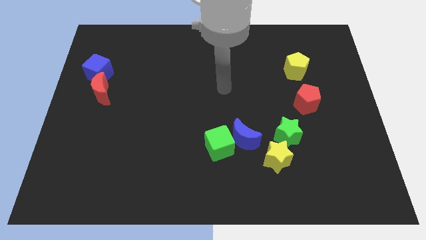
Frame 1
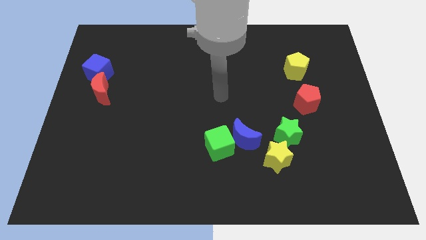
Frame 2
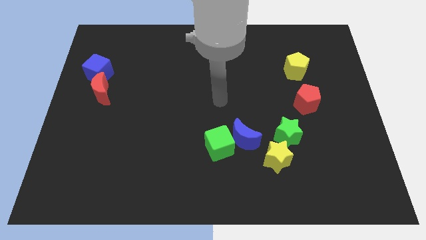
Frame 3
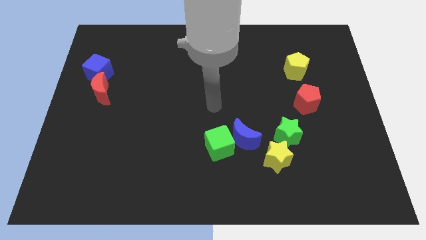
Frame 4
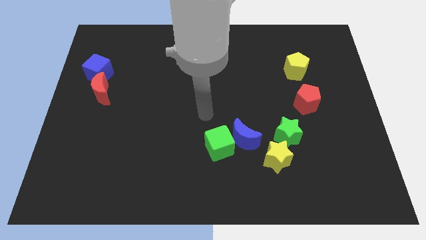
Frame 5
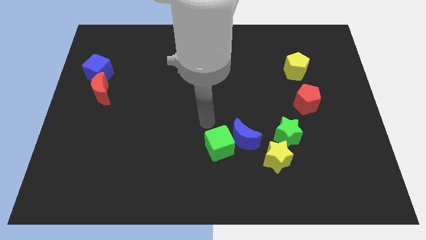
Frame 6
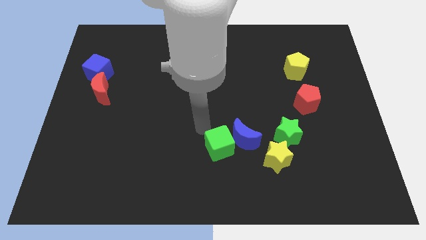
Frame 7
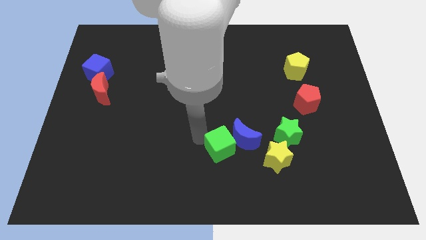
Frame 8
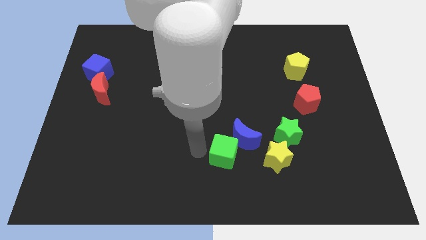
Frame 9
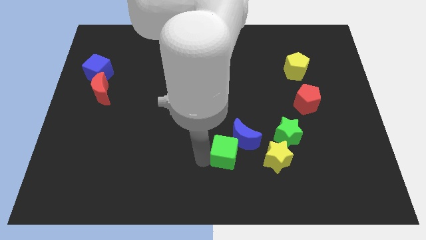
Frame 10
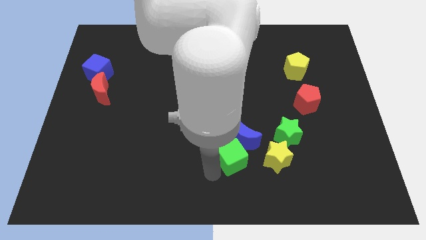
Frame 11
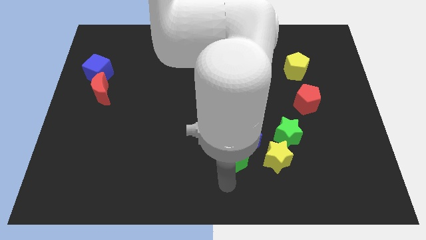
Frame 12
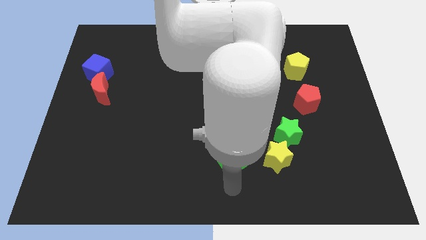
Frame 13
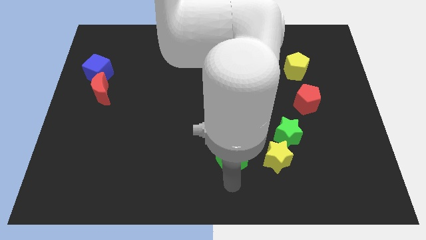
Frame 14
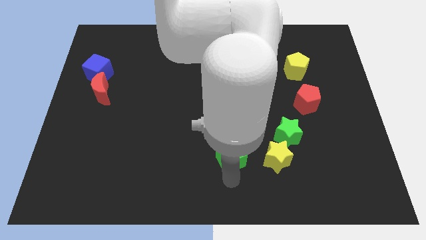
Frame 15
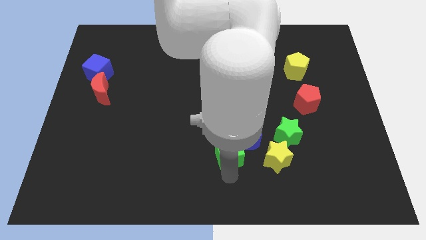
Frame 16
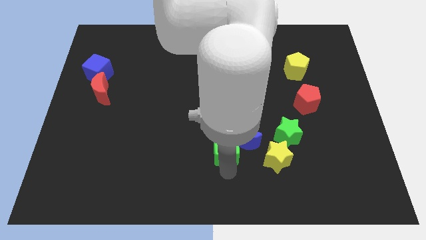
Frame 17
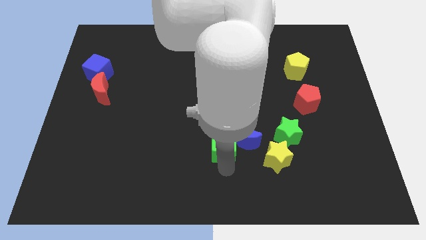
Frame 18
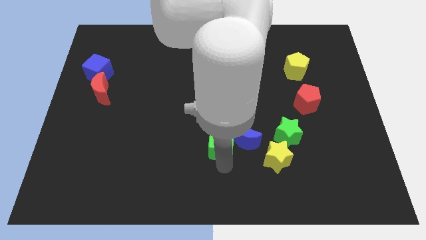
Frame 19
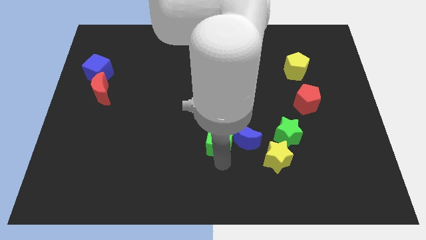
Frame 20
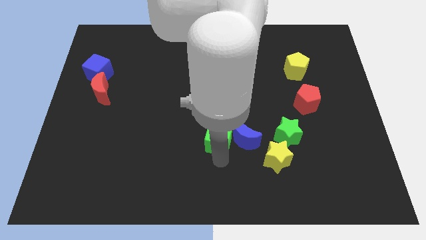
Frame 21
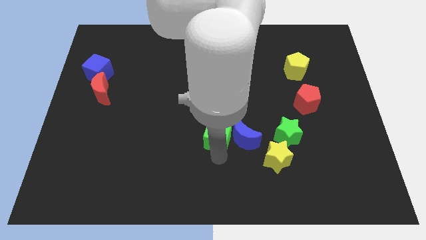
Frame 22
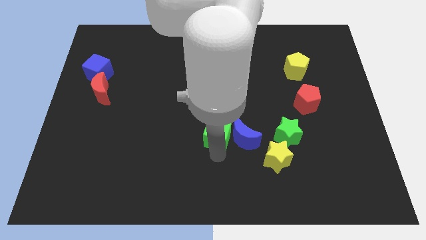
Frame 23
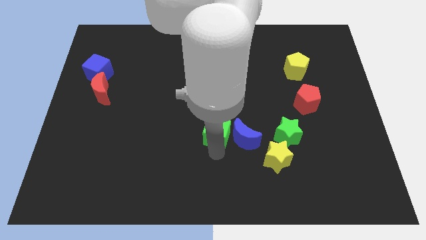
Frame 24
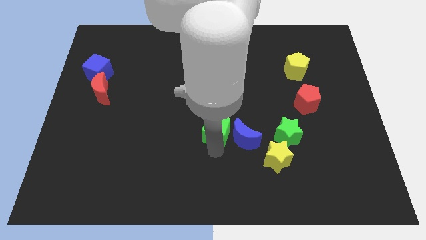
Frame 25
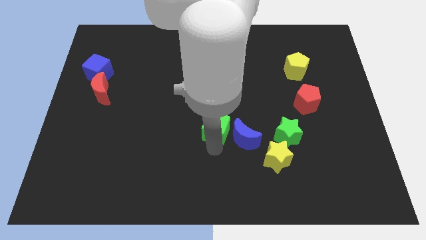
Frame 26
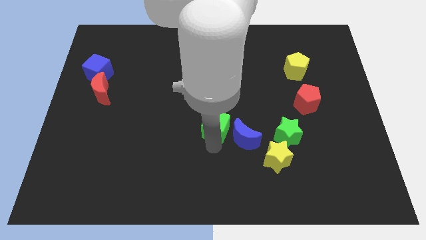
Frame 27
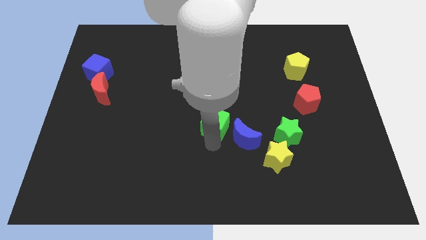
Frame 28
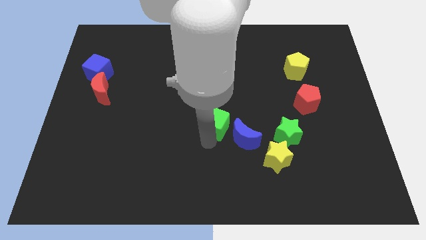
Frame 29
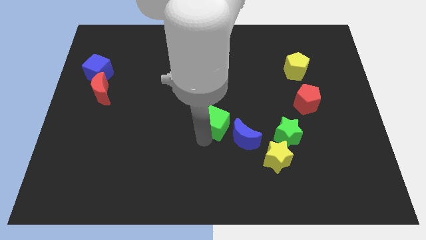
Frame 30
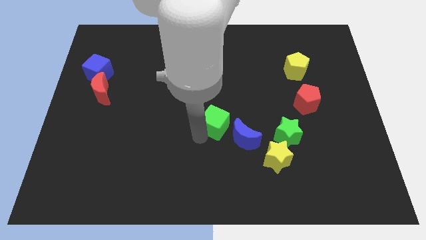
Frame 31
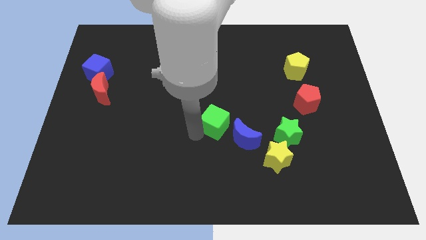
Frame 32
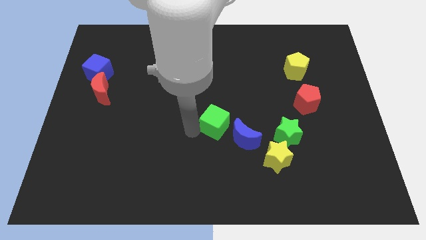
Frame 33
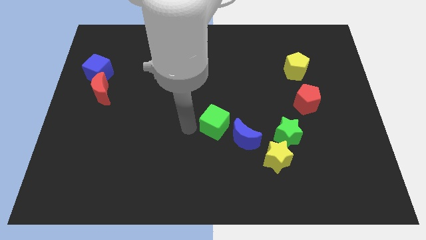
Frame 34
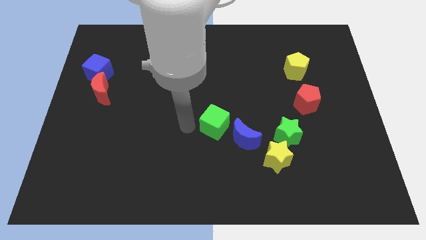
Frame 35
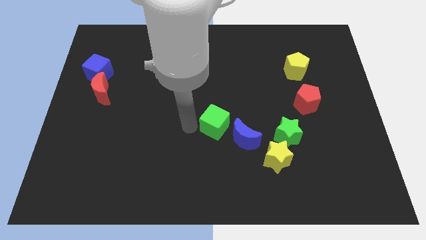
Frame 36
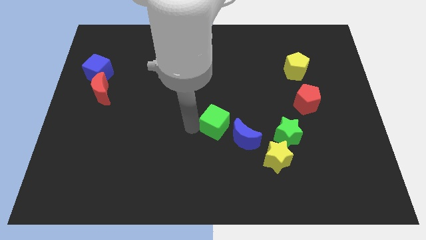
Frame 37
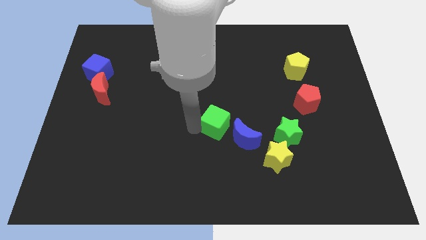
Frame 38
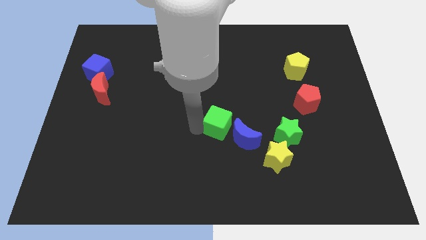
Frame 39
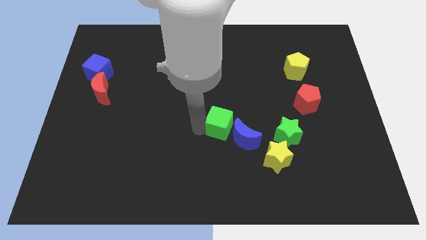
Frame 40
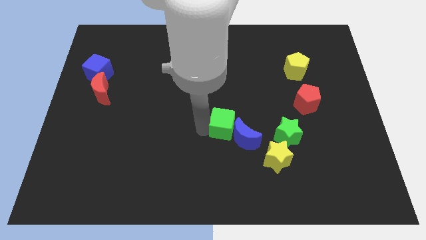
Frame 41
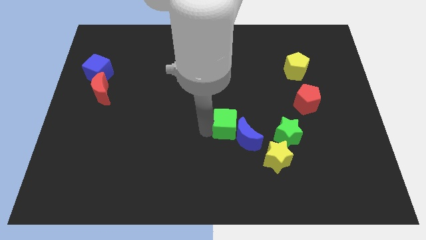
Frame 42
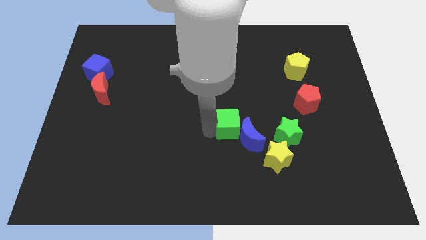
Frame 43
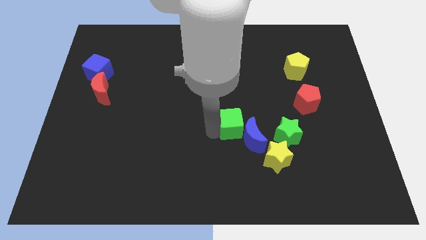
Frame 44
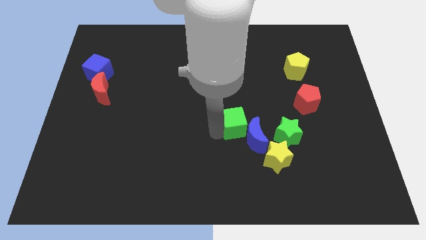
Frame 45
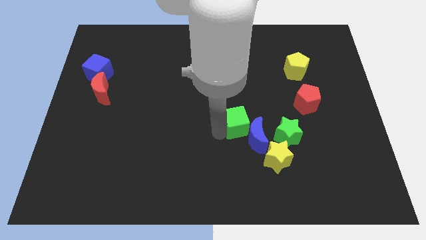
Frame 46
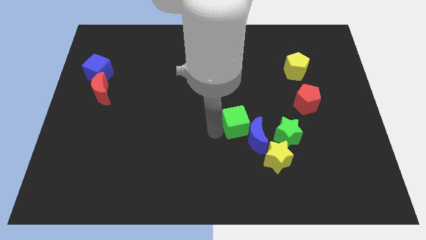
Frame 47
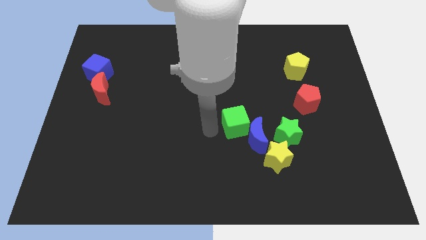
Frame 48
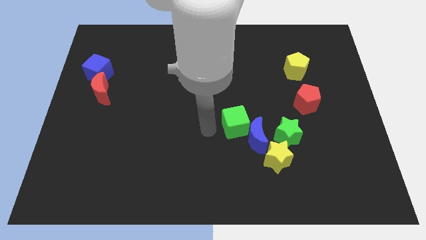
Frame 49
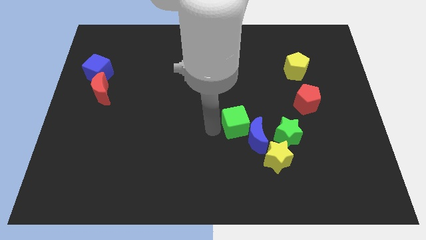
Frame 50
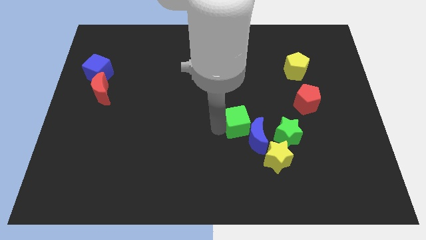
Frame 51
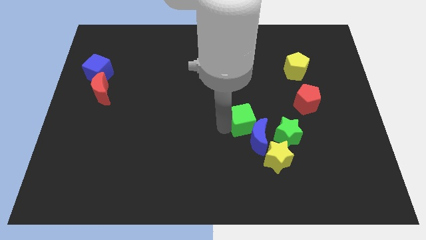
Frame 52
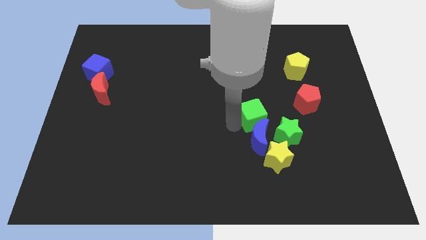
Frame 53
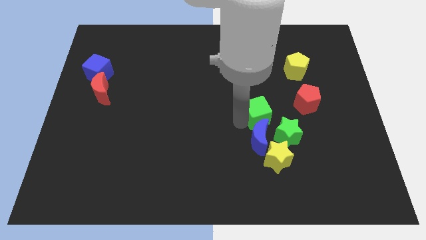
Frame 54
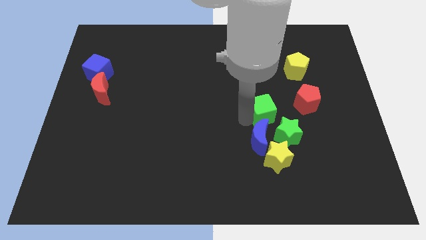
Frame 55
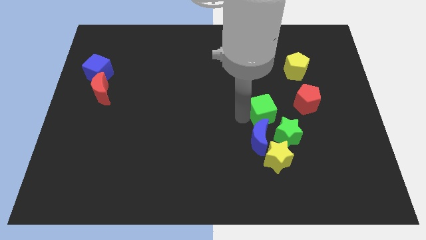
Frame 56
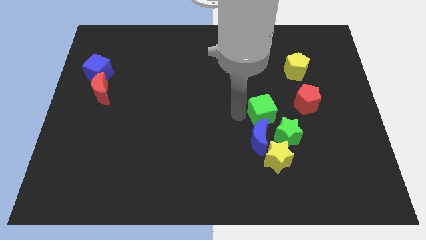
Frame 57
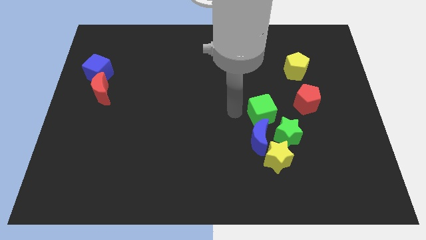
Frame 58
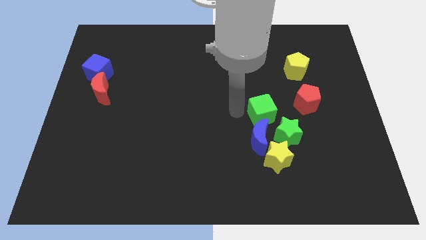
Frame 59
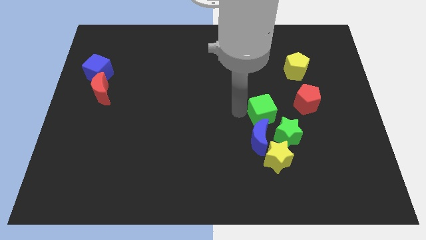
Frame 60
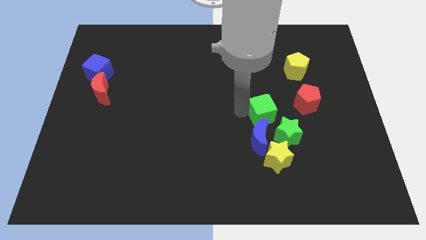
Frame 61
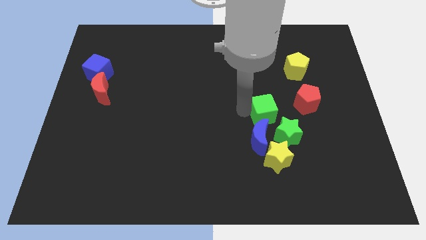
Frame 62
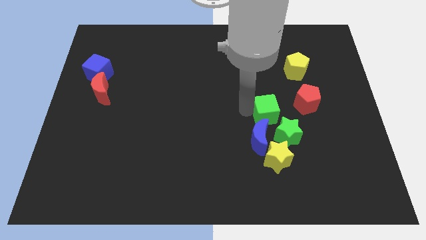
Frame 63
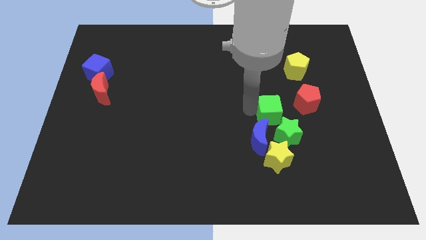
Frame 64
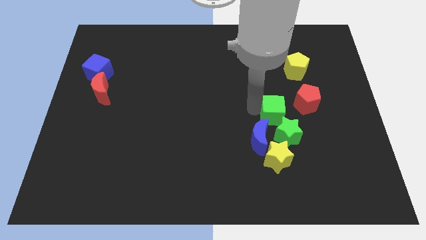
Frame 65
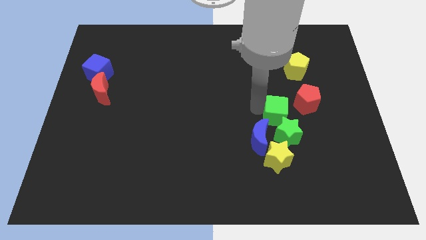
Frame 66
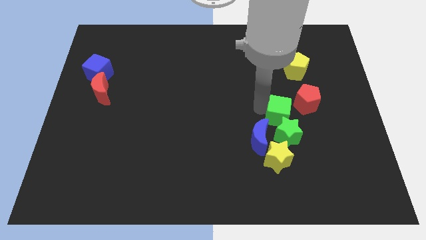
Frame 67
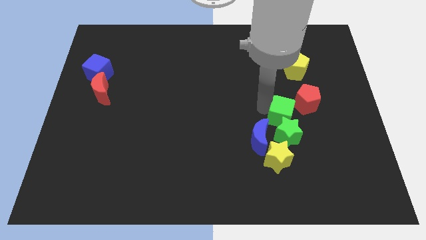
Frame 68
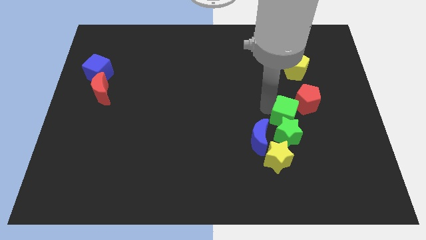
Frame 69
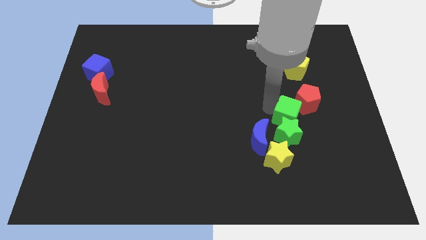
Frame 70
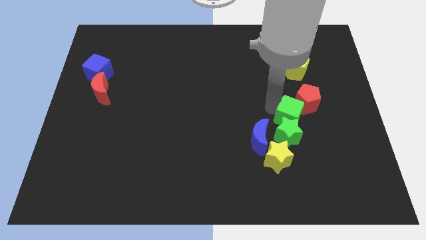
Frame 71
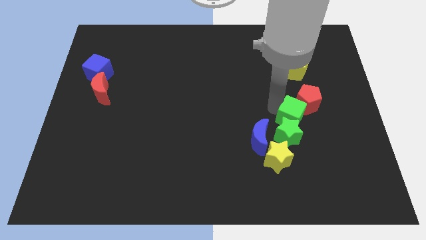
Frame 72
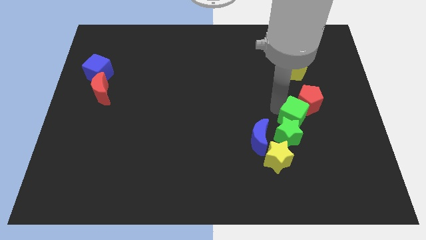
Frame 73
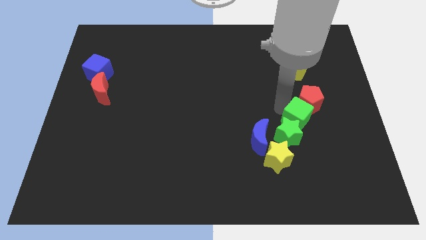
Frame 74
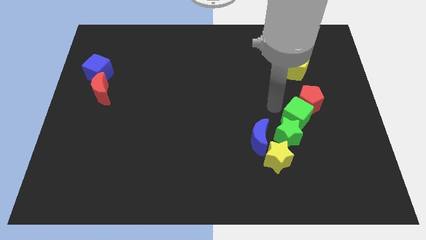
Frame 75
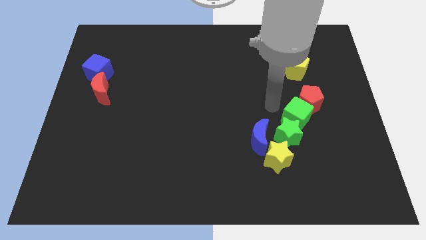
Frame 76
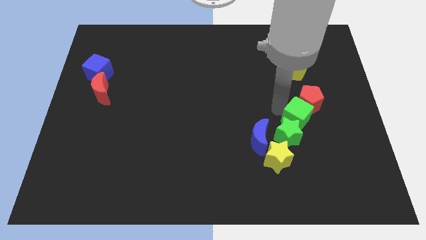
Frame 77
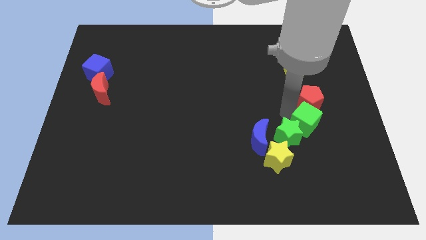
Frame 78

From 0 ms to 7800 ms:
put the green cube to the right side of the green star
